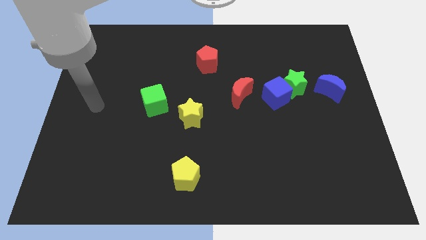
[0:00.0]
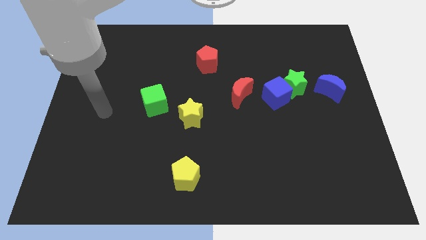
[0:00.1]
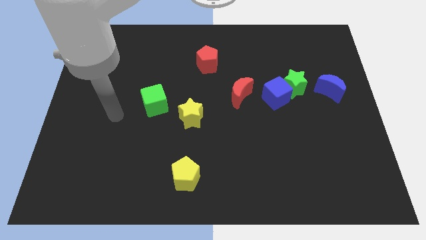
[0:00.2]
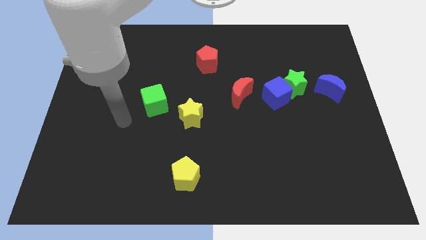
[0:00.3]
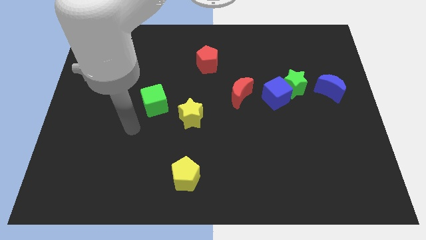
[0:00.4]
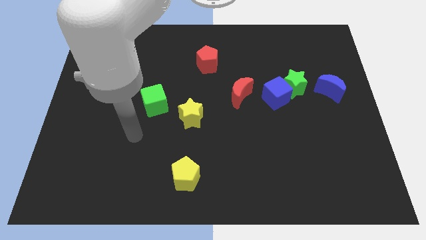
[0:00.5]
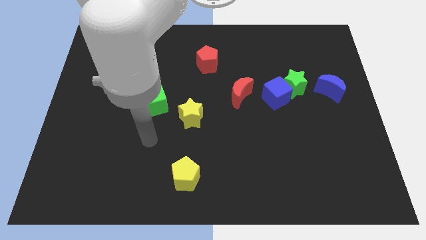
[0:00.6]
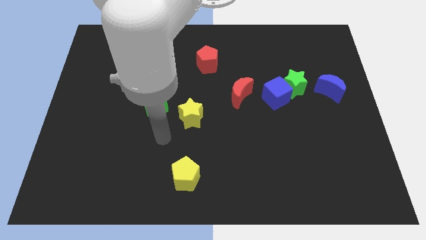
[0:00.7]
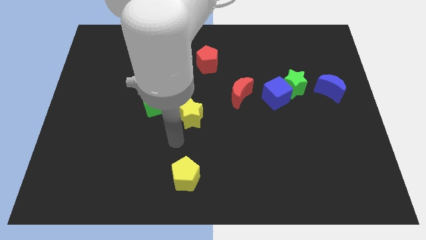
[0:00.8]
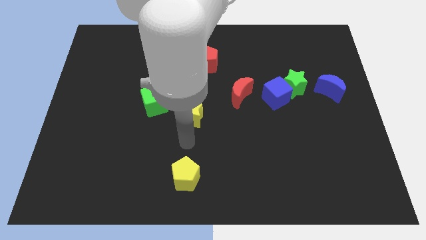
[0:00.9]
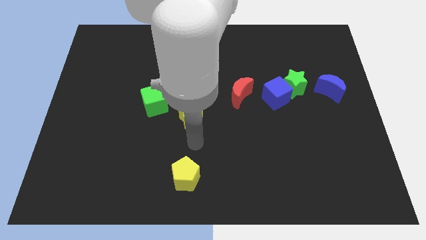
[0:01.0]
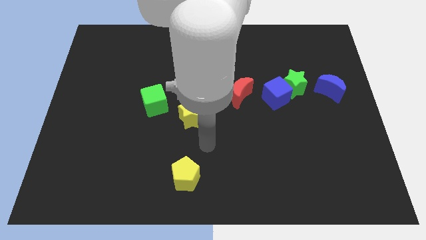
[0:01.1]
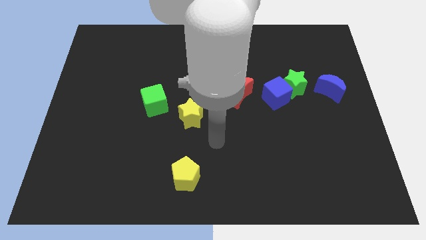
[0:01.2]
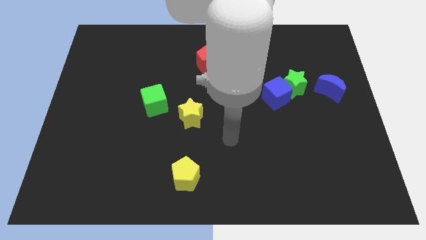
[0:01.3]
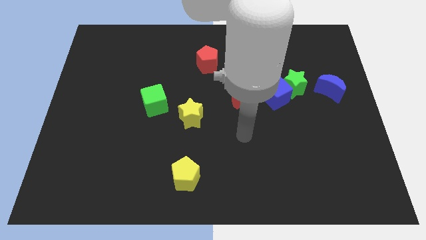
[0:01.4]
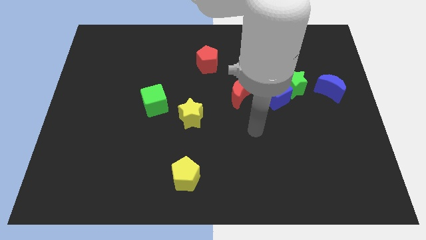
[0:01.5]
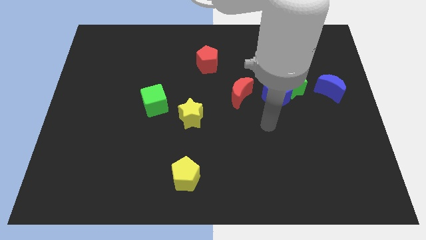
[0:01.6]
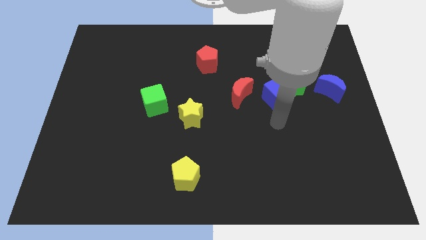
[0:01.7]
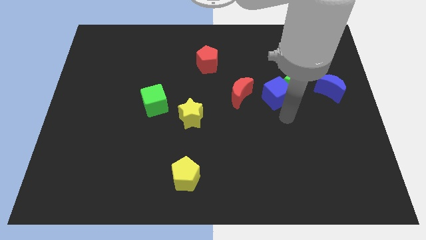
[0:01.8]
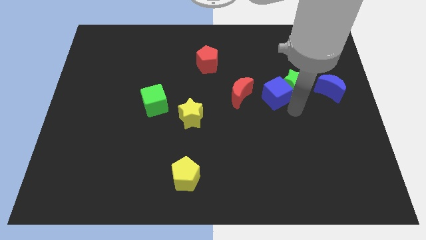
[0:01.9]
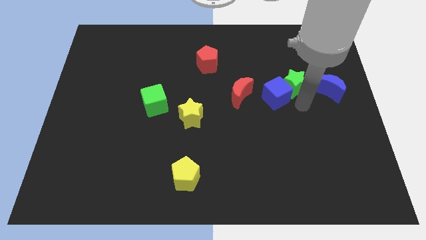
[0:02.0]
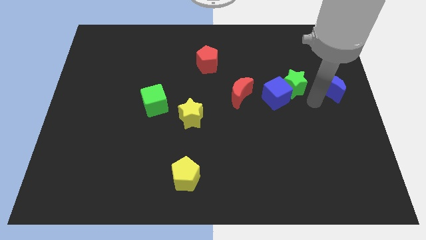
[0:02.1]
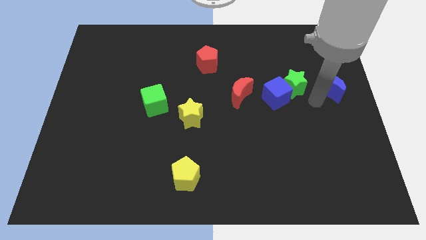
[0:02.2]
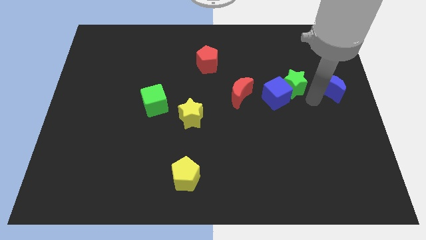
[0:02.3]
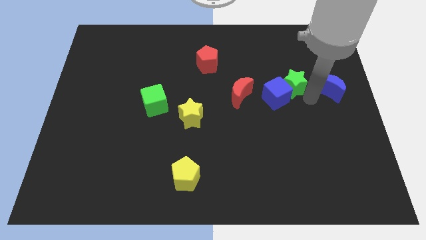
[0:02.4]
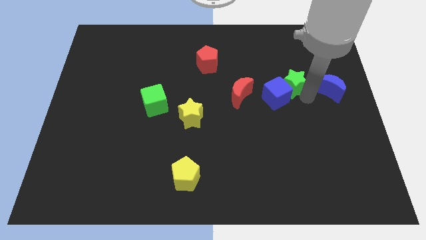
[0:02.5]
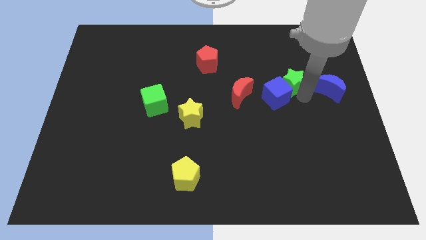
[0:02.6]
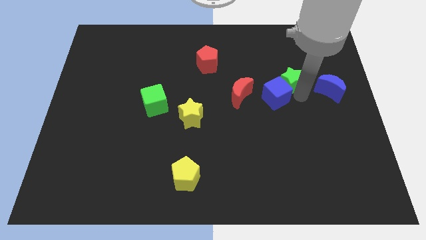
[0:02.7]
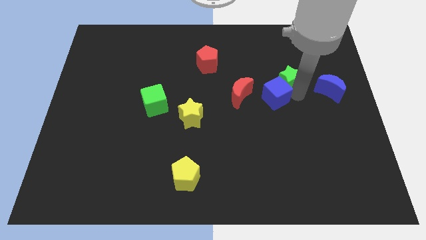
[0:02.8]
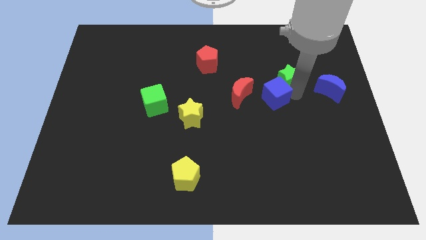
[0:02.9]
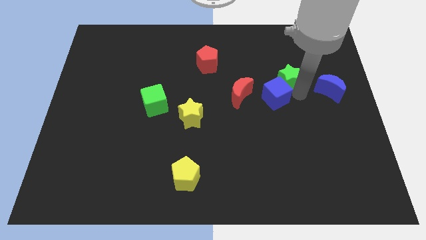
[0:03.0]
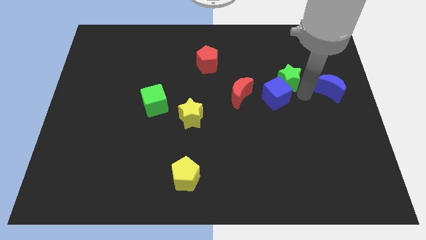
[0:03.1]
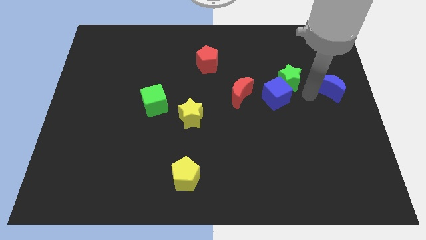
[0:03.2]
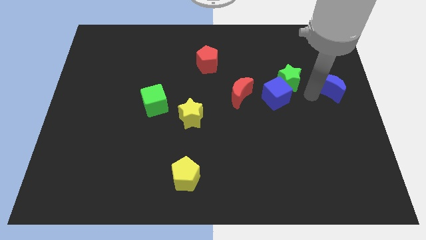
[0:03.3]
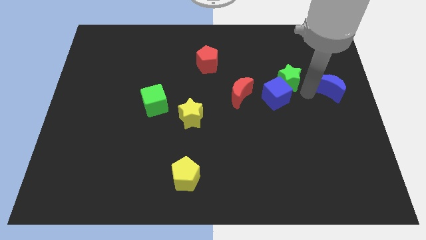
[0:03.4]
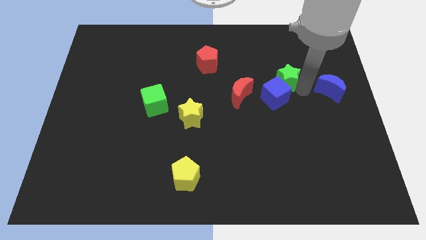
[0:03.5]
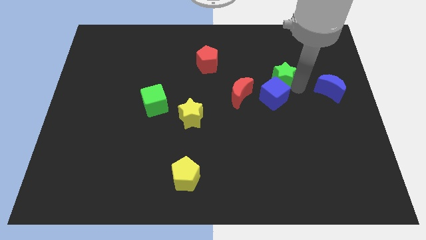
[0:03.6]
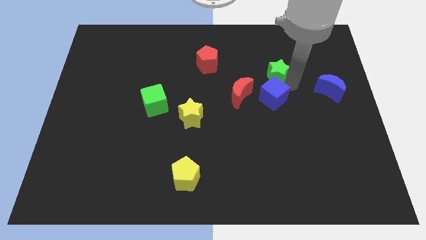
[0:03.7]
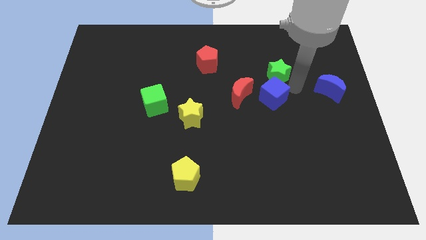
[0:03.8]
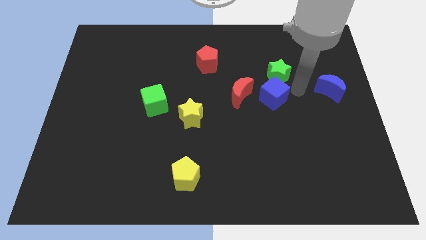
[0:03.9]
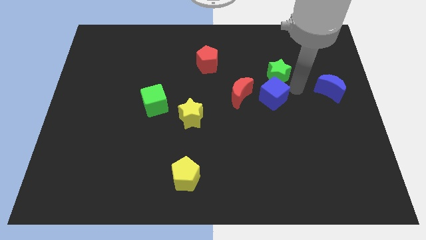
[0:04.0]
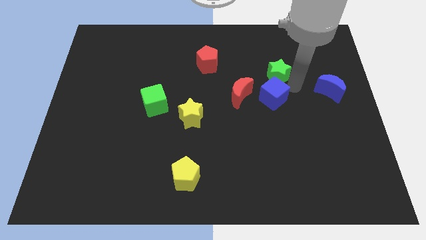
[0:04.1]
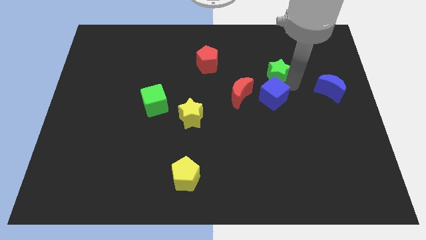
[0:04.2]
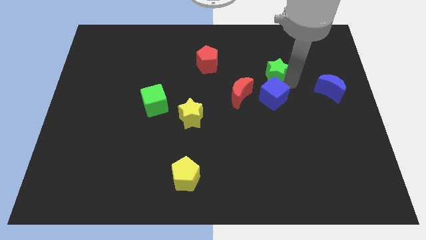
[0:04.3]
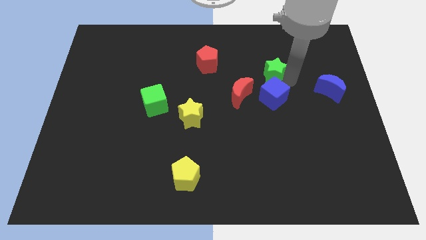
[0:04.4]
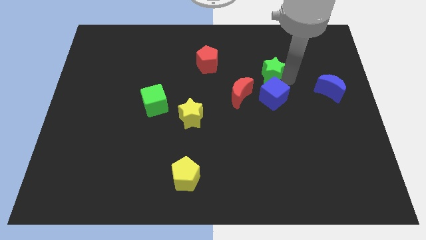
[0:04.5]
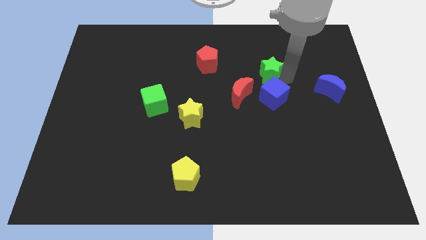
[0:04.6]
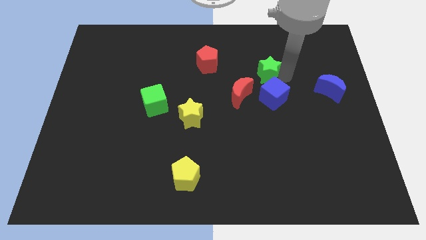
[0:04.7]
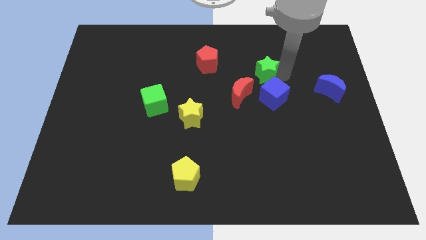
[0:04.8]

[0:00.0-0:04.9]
separate the green star from the blue cube and blue moon

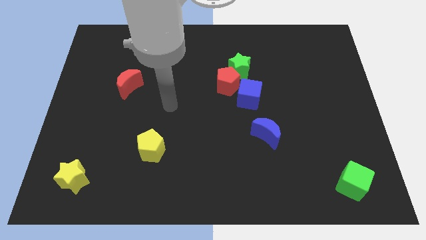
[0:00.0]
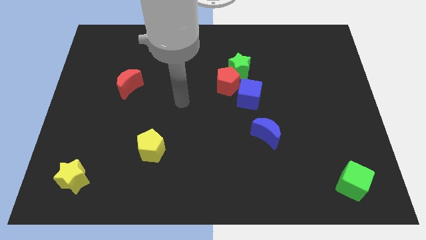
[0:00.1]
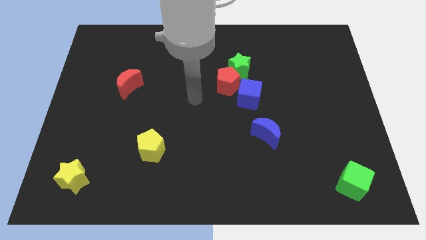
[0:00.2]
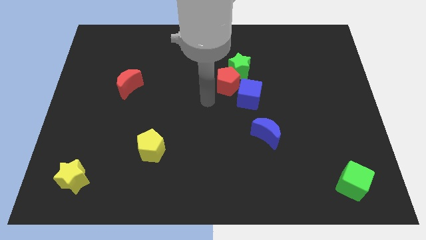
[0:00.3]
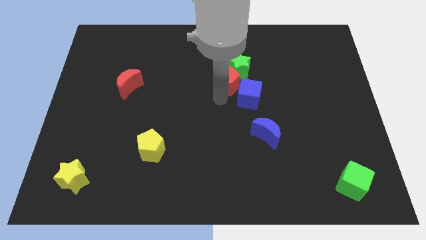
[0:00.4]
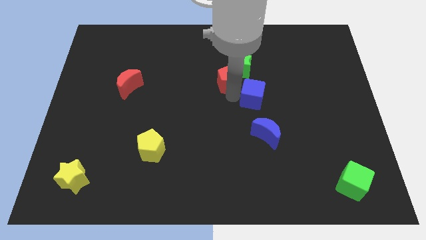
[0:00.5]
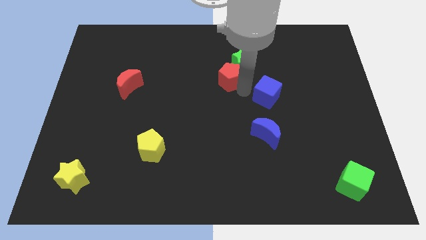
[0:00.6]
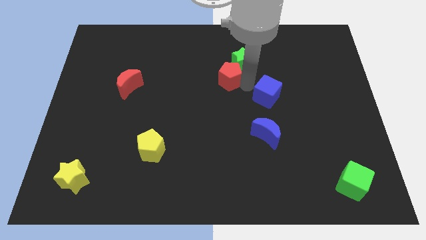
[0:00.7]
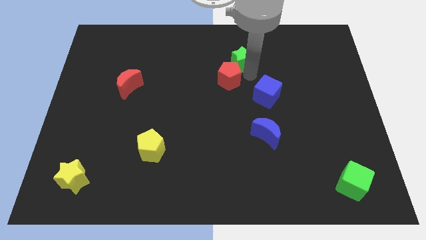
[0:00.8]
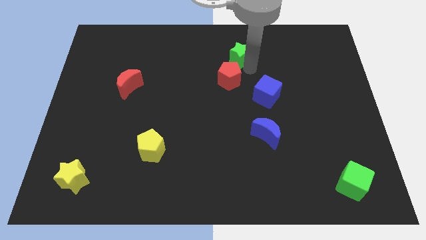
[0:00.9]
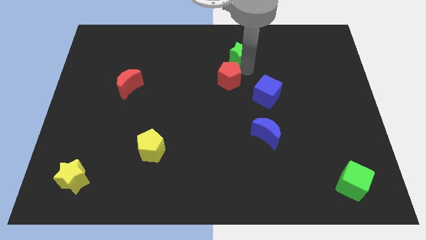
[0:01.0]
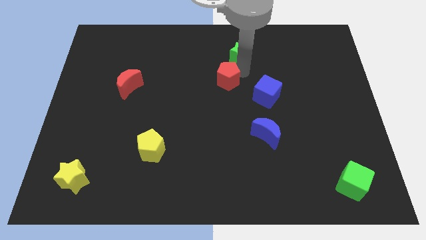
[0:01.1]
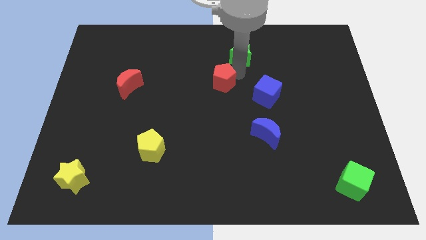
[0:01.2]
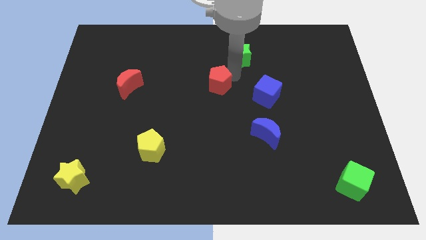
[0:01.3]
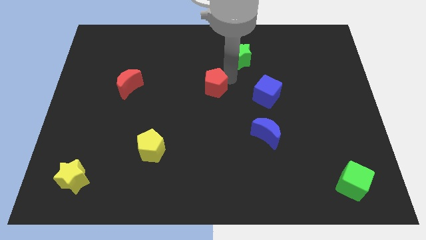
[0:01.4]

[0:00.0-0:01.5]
separate the red pentagon from the green star and blue cube

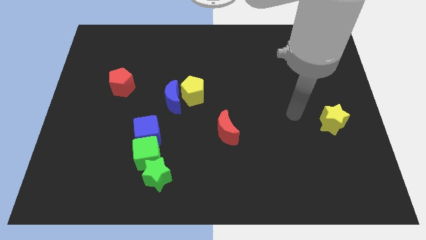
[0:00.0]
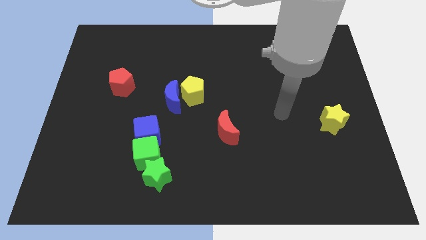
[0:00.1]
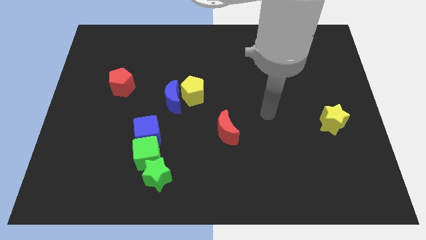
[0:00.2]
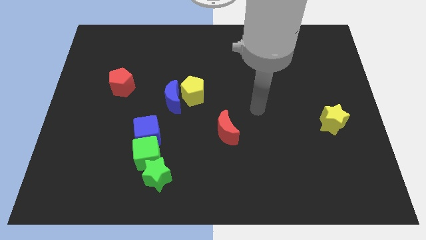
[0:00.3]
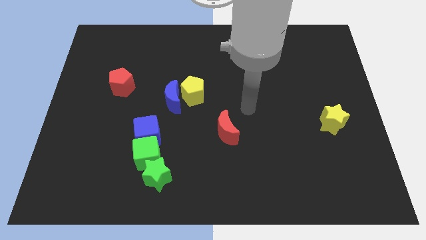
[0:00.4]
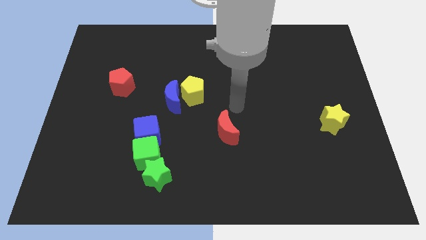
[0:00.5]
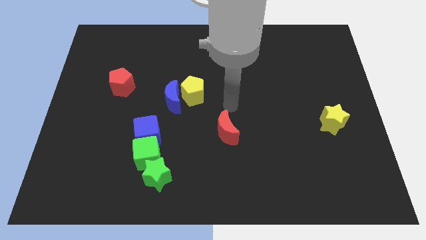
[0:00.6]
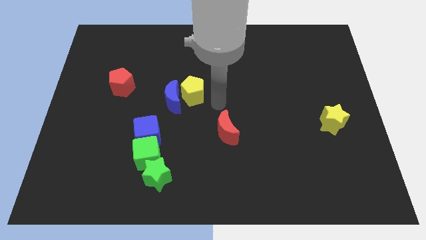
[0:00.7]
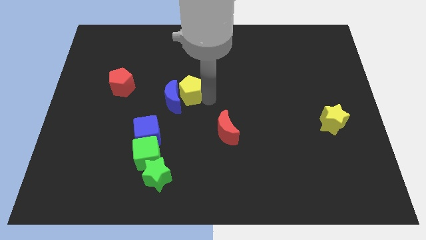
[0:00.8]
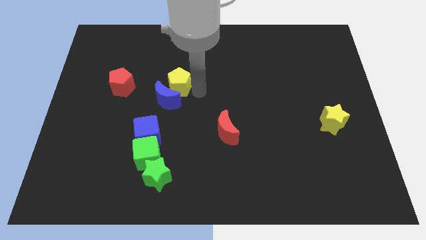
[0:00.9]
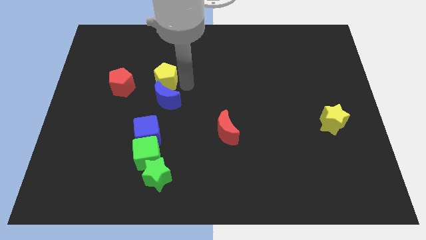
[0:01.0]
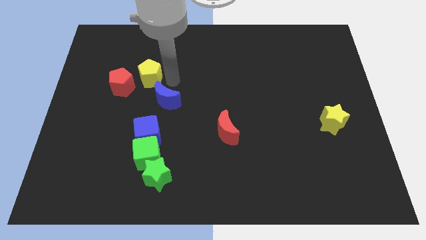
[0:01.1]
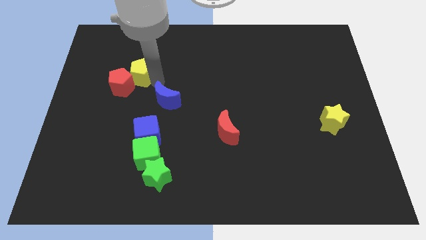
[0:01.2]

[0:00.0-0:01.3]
move the blue moon away from the yellow pentagon

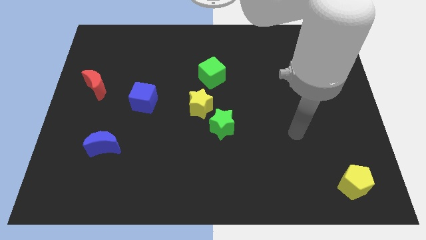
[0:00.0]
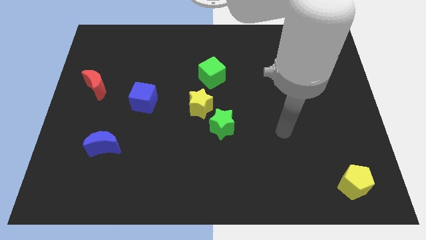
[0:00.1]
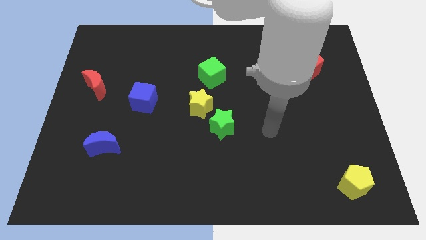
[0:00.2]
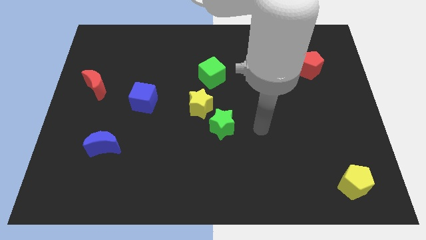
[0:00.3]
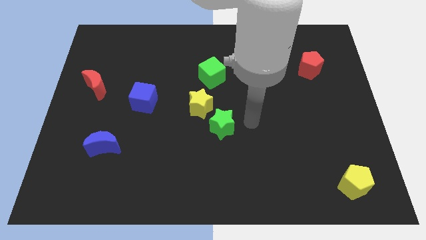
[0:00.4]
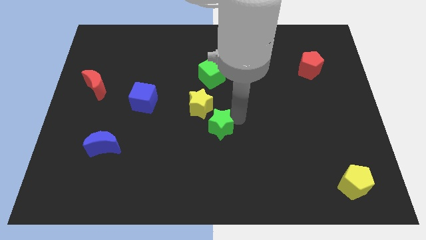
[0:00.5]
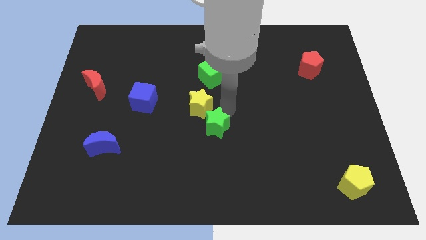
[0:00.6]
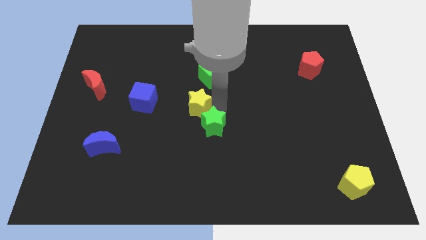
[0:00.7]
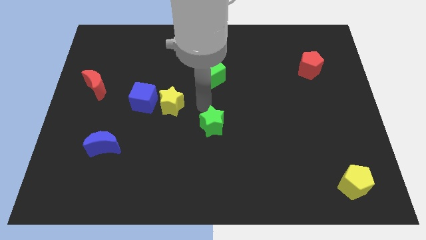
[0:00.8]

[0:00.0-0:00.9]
separate the green star from the yellow star

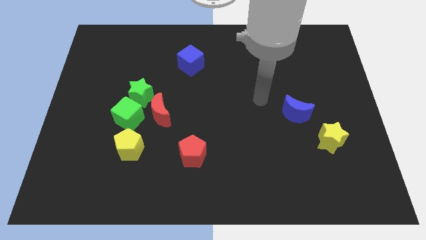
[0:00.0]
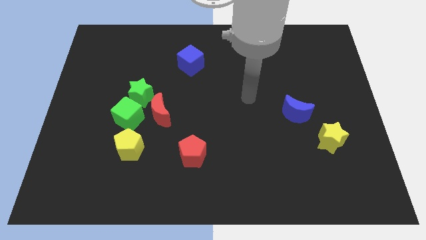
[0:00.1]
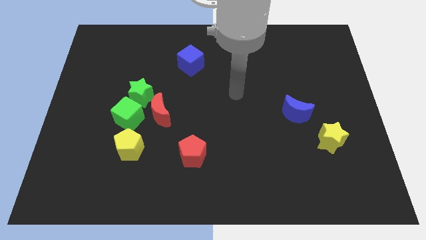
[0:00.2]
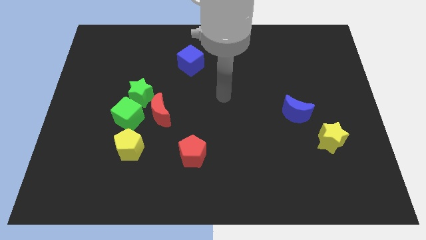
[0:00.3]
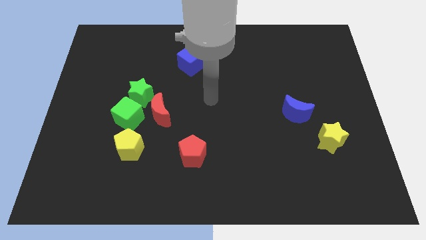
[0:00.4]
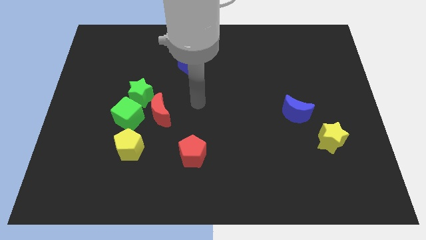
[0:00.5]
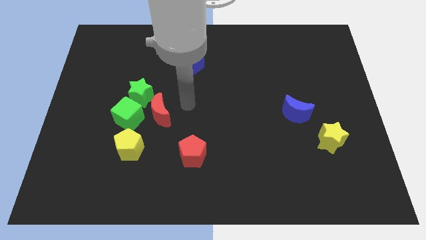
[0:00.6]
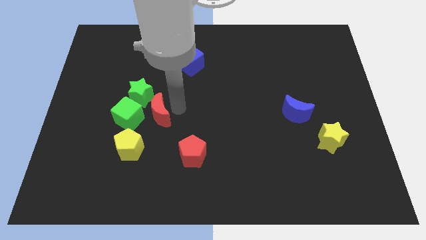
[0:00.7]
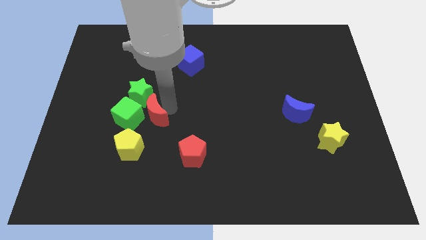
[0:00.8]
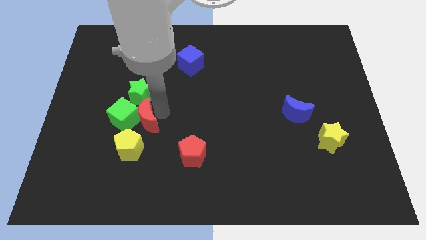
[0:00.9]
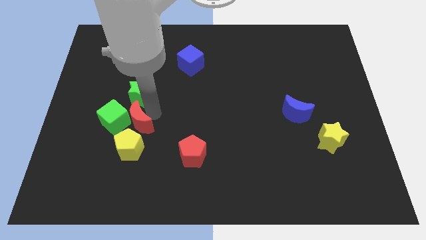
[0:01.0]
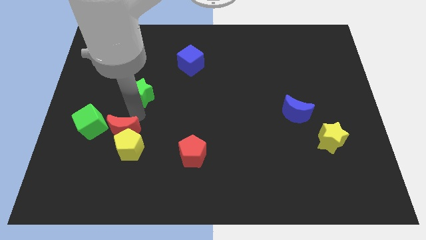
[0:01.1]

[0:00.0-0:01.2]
separate the green star from the green cube and red moon
